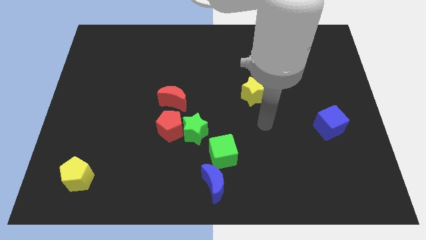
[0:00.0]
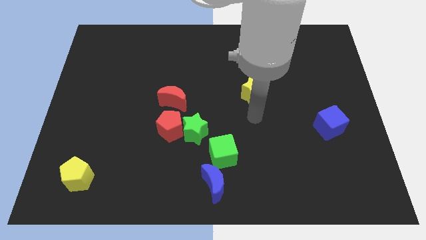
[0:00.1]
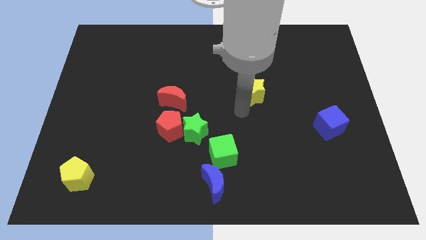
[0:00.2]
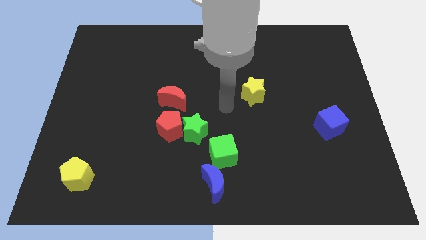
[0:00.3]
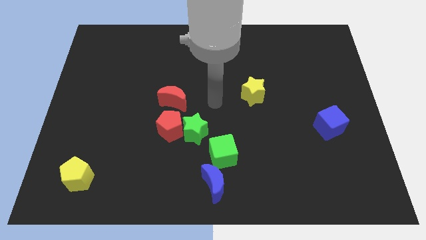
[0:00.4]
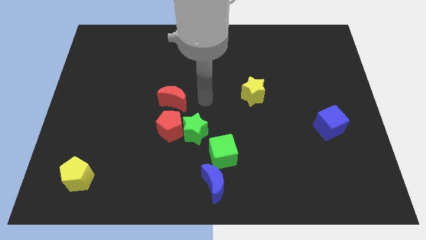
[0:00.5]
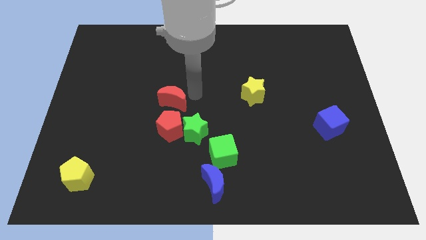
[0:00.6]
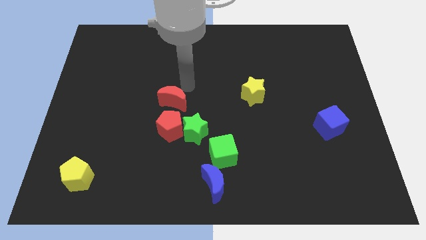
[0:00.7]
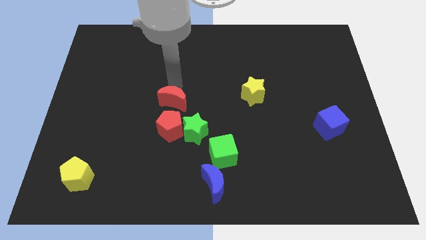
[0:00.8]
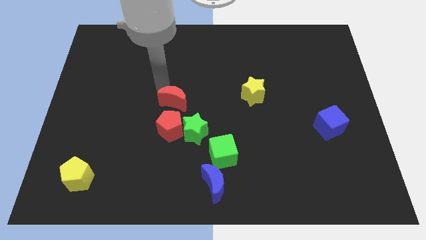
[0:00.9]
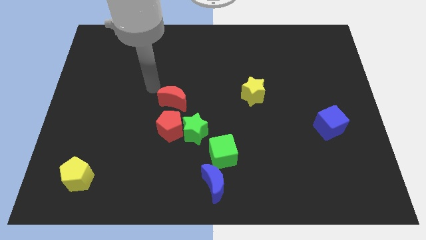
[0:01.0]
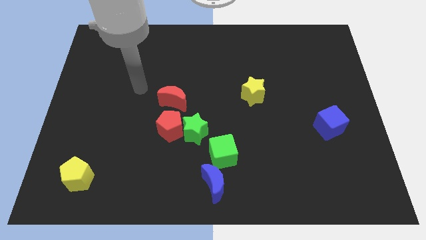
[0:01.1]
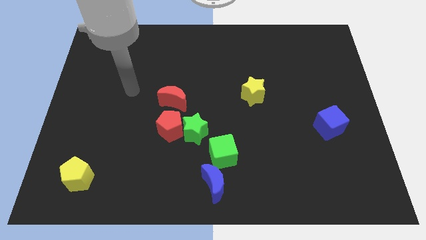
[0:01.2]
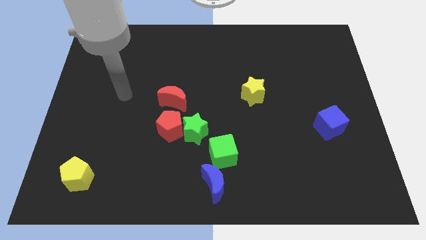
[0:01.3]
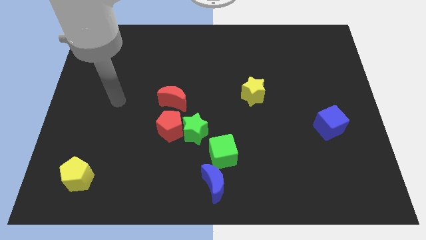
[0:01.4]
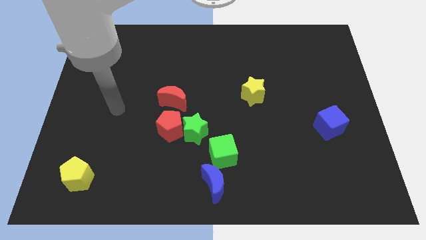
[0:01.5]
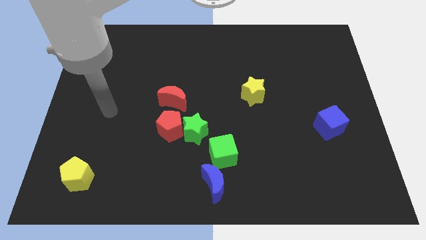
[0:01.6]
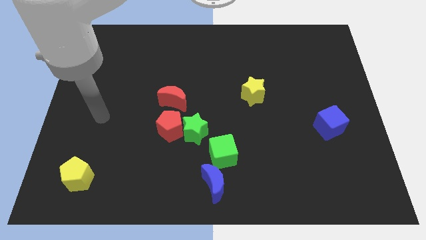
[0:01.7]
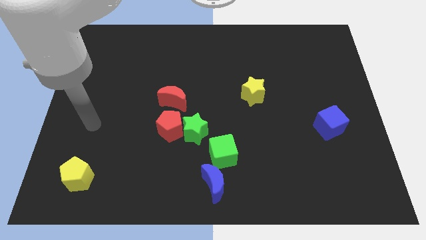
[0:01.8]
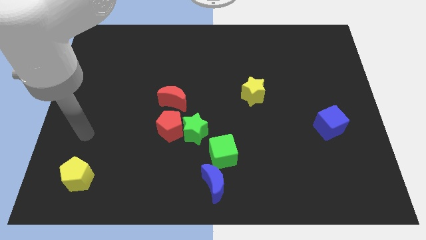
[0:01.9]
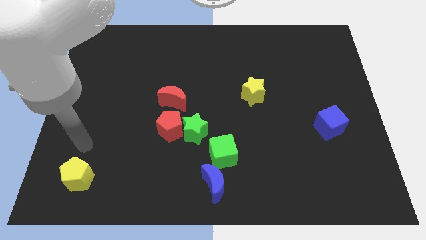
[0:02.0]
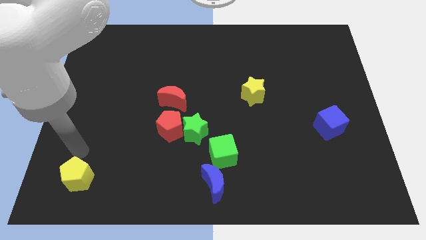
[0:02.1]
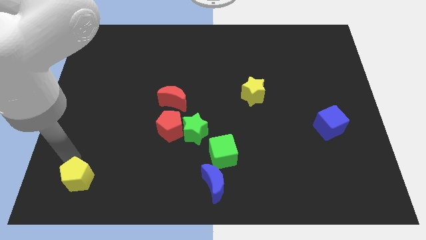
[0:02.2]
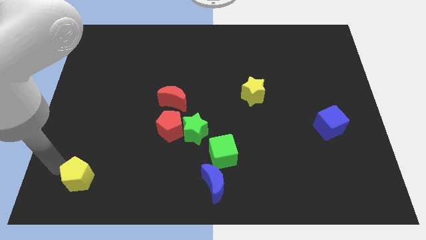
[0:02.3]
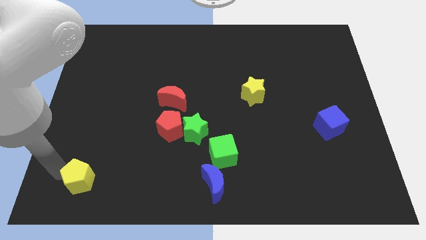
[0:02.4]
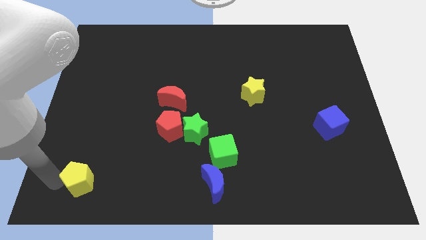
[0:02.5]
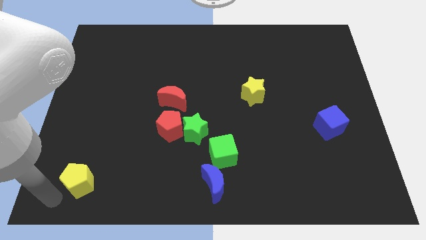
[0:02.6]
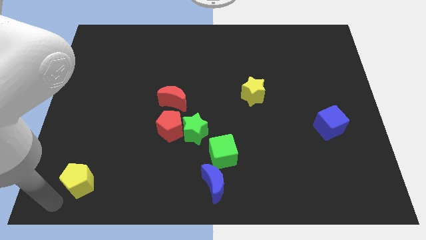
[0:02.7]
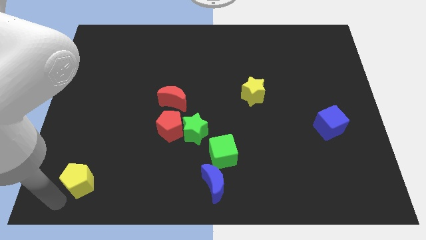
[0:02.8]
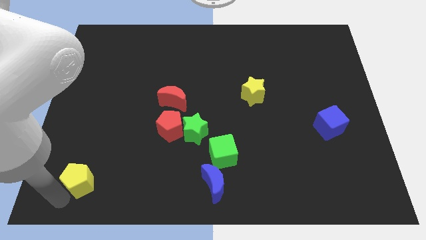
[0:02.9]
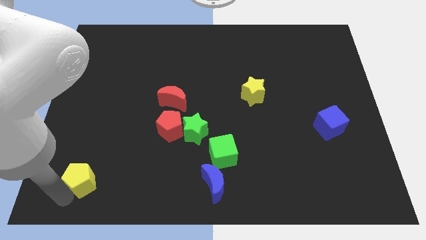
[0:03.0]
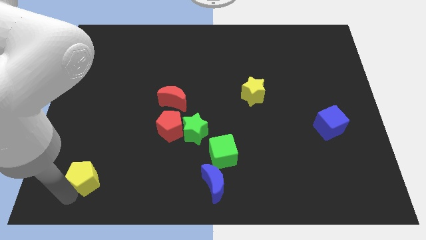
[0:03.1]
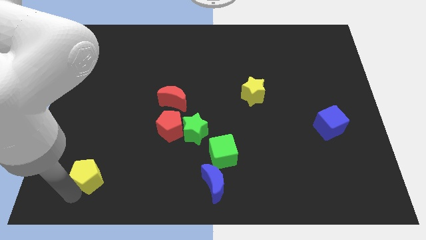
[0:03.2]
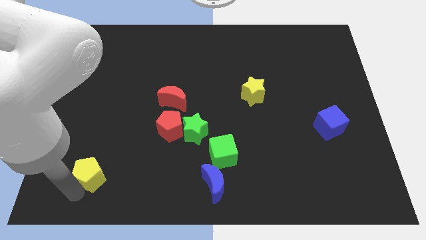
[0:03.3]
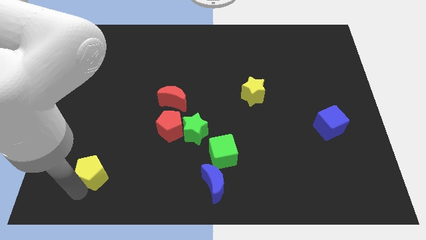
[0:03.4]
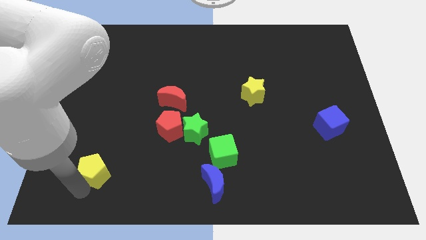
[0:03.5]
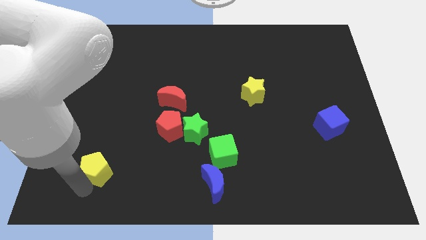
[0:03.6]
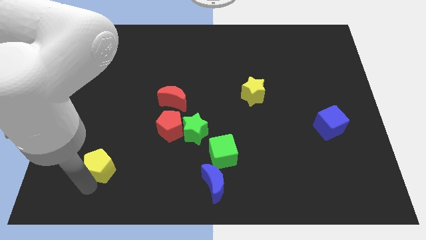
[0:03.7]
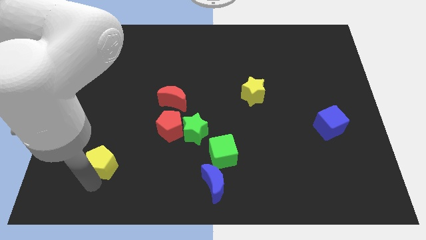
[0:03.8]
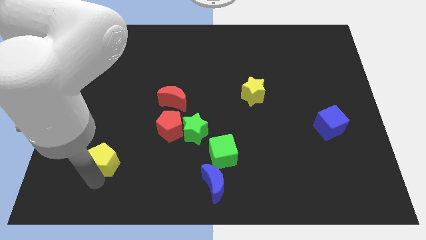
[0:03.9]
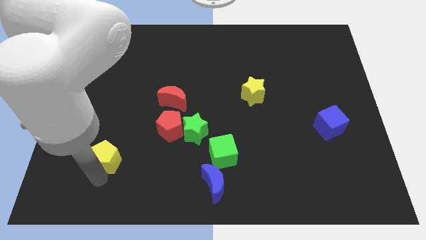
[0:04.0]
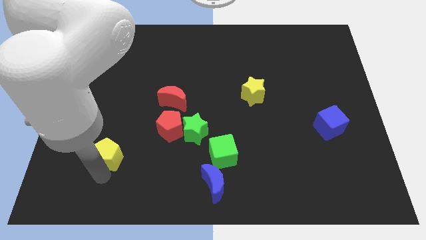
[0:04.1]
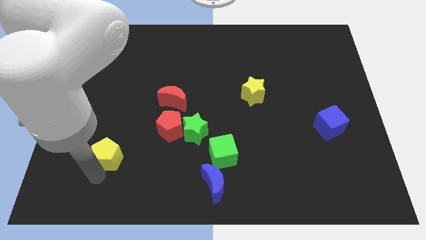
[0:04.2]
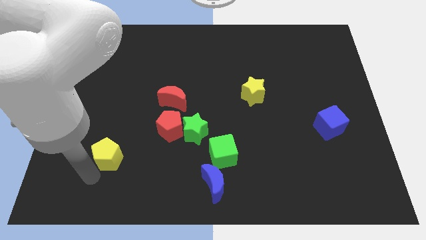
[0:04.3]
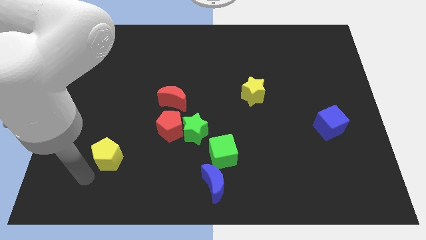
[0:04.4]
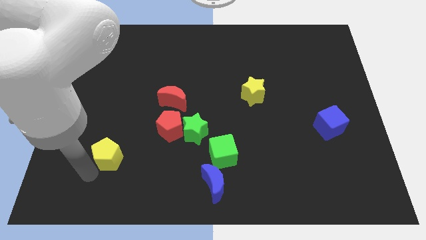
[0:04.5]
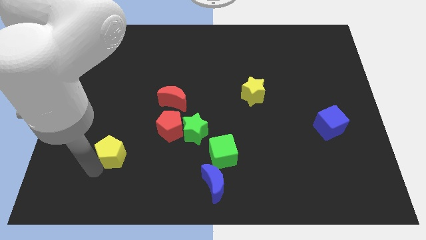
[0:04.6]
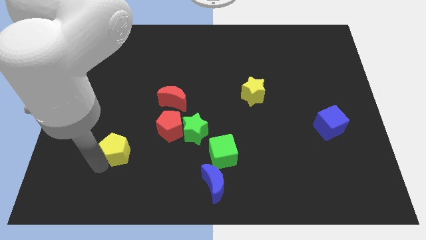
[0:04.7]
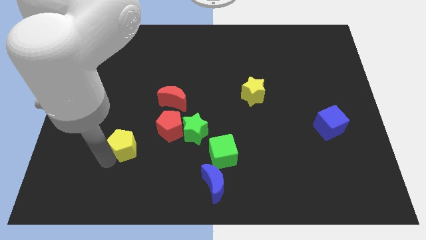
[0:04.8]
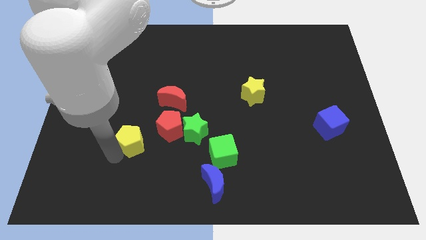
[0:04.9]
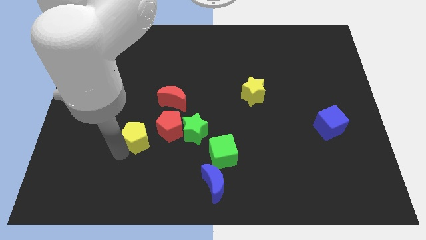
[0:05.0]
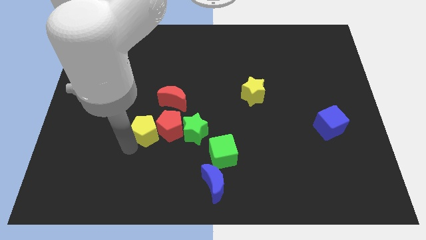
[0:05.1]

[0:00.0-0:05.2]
slide the yellow pentagon diagonally up and to the left of the red pentagon

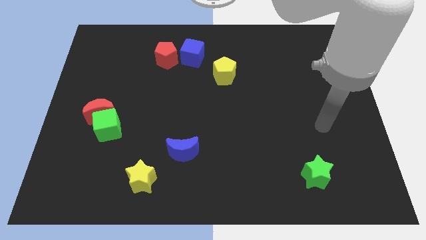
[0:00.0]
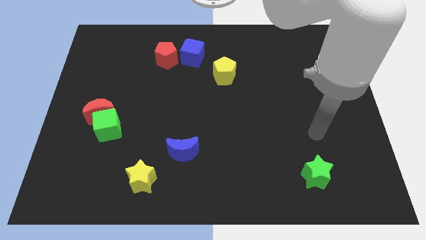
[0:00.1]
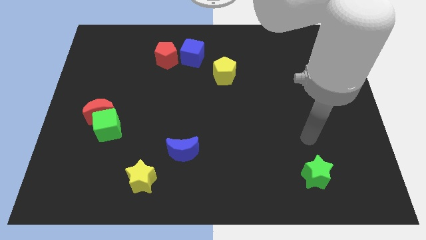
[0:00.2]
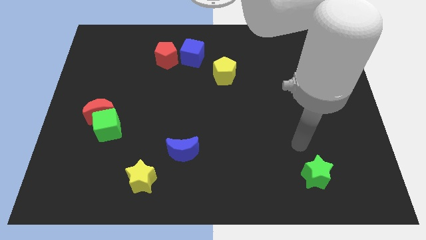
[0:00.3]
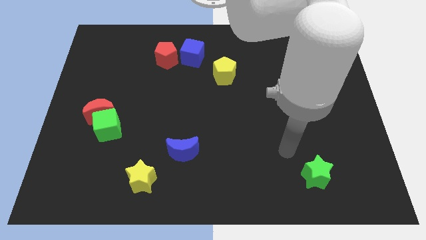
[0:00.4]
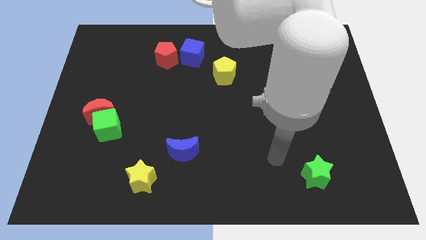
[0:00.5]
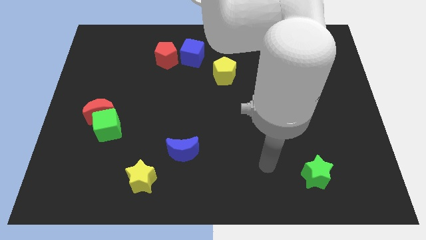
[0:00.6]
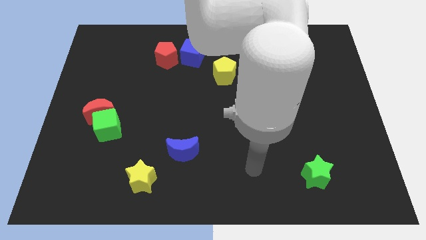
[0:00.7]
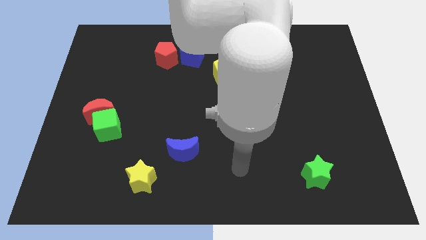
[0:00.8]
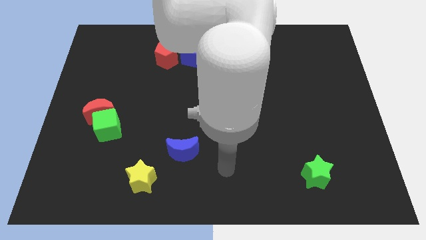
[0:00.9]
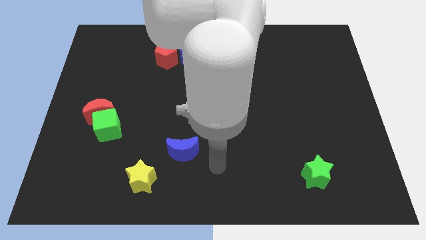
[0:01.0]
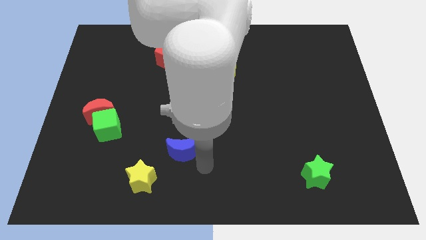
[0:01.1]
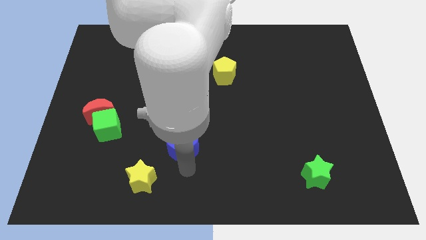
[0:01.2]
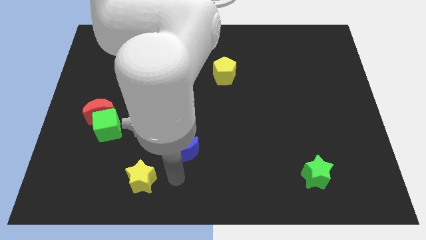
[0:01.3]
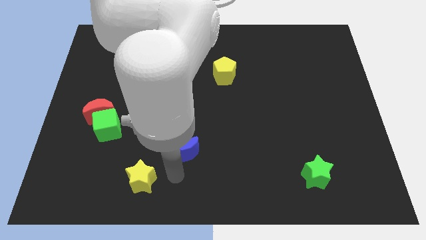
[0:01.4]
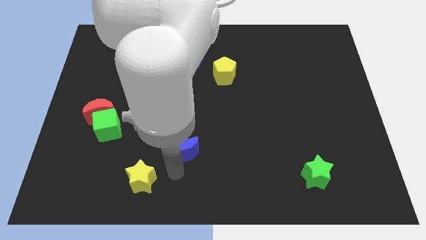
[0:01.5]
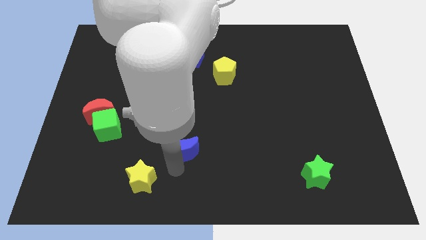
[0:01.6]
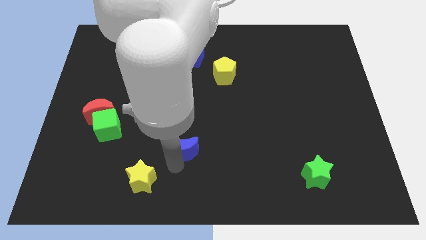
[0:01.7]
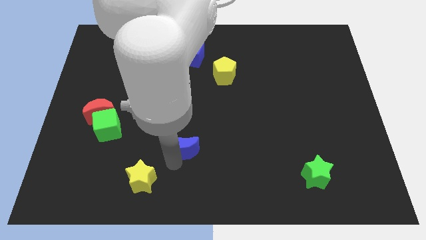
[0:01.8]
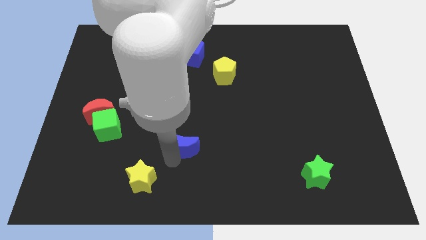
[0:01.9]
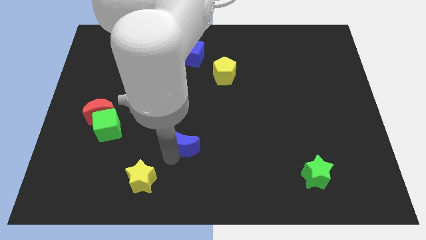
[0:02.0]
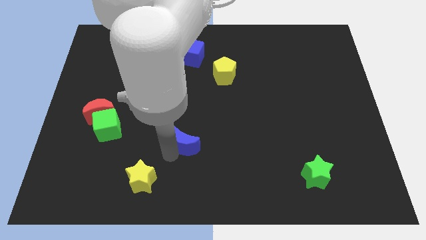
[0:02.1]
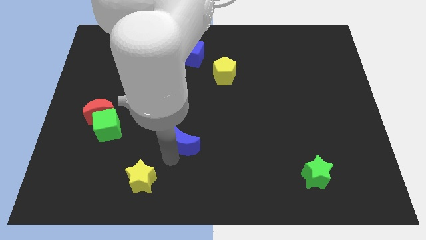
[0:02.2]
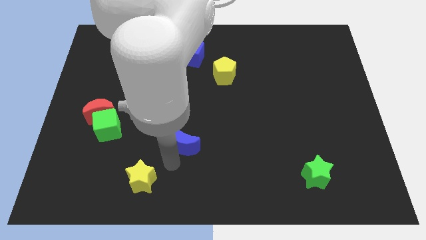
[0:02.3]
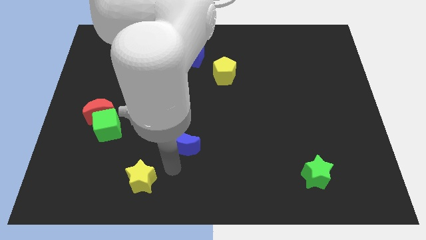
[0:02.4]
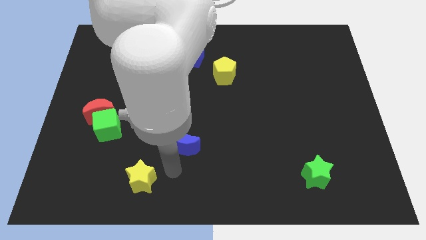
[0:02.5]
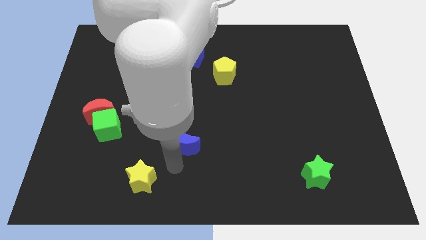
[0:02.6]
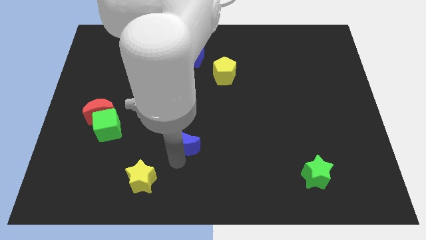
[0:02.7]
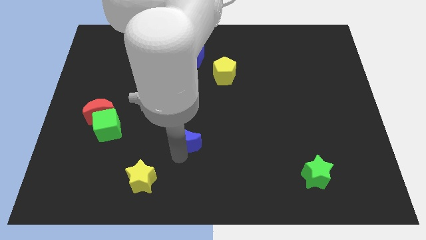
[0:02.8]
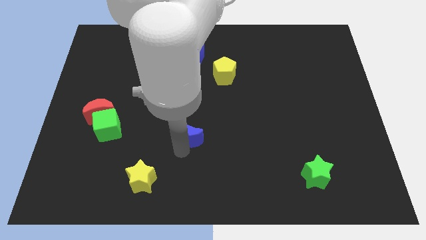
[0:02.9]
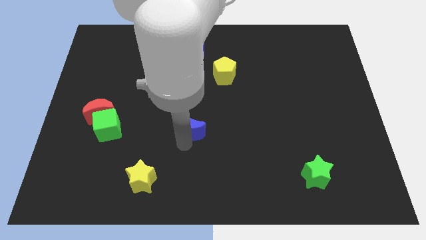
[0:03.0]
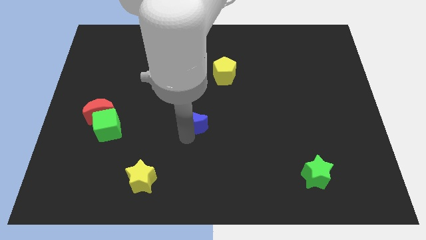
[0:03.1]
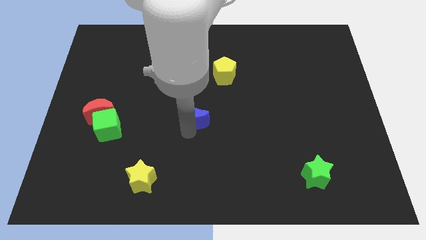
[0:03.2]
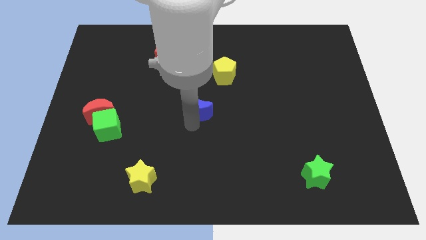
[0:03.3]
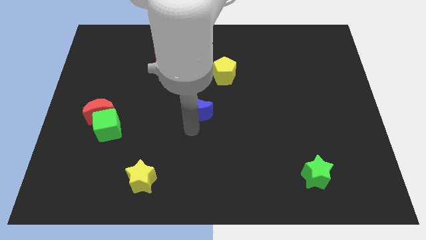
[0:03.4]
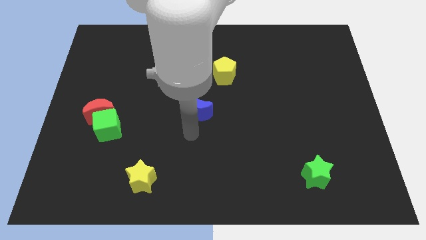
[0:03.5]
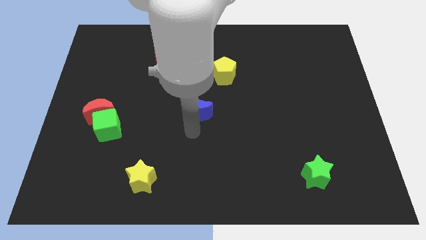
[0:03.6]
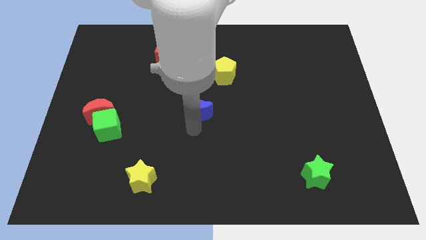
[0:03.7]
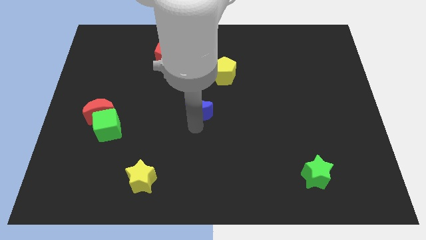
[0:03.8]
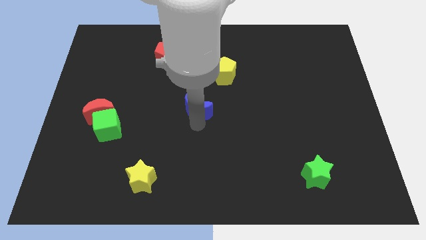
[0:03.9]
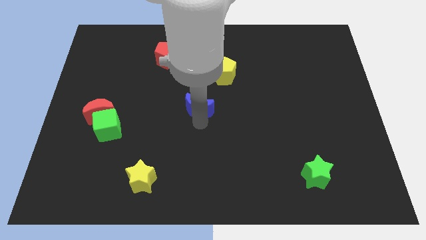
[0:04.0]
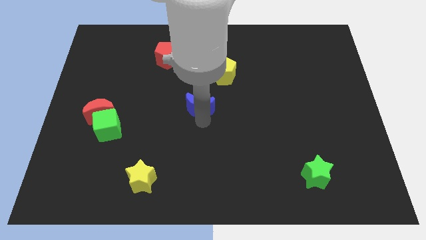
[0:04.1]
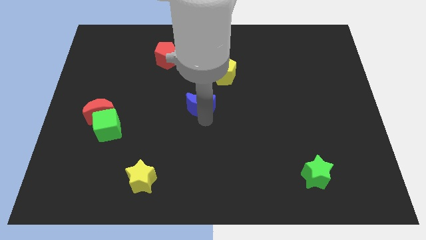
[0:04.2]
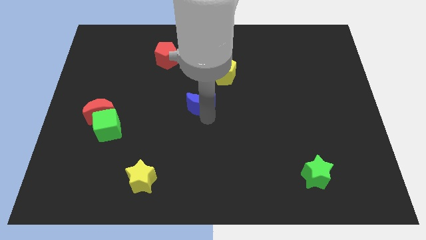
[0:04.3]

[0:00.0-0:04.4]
put the blue moon diagonally down and to the left of the yellow pentagon
